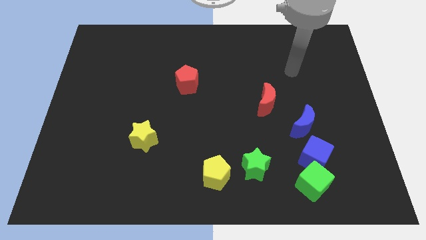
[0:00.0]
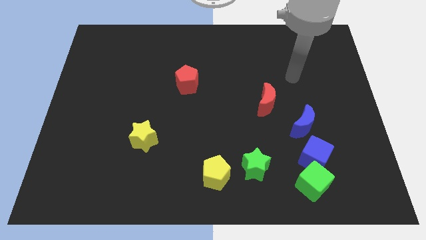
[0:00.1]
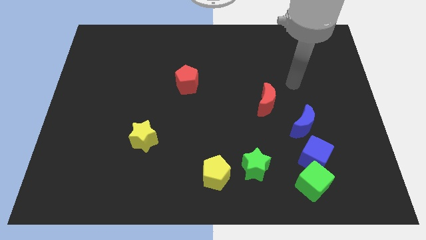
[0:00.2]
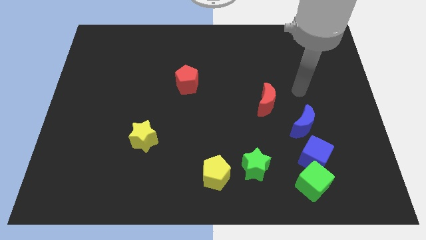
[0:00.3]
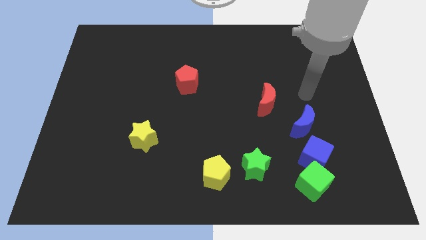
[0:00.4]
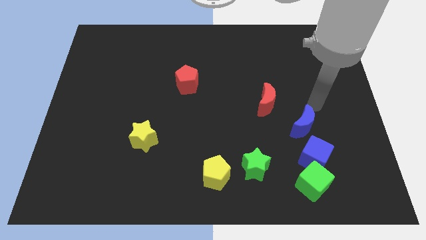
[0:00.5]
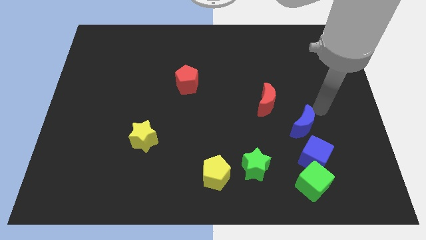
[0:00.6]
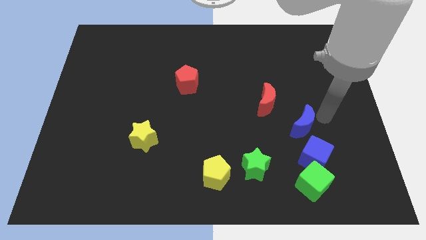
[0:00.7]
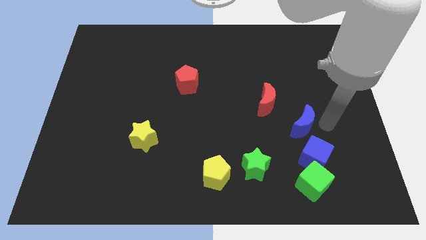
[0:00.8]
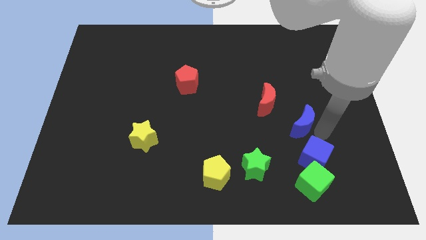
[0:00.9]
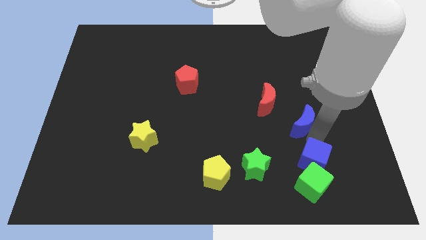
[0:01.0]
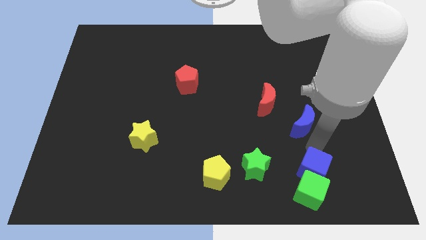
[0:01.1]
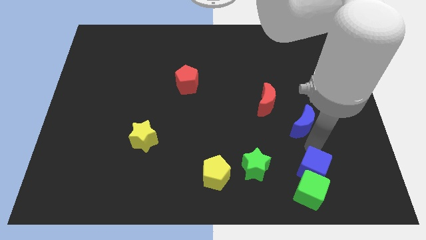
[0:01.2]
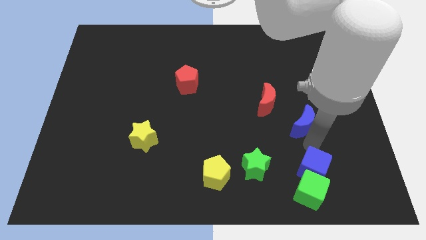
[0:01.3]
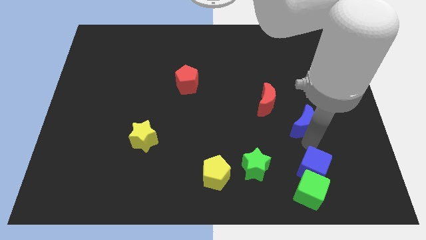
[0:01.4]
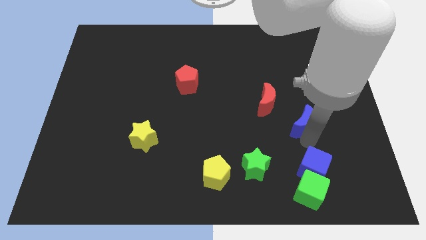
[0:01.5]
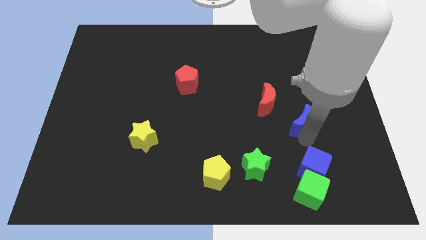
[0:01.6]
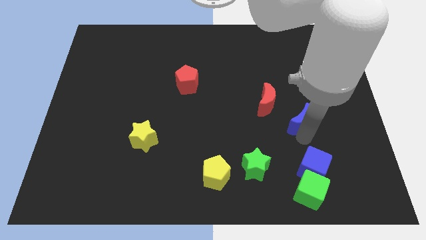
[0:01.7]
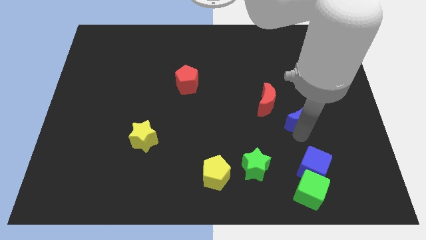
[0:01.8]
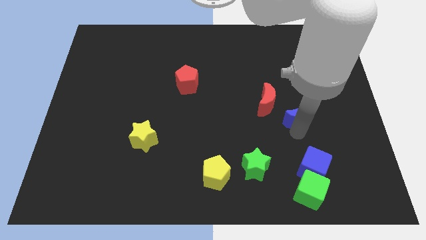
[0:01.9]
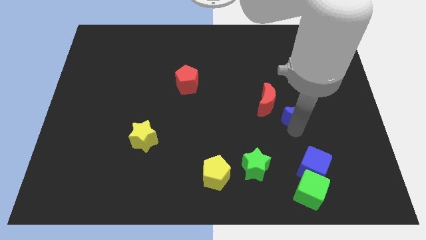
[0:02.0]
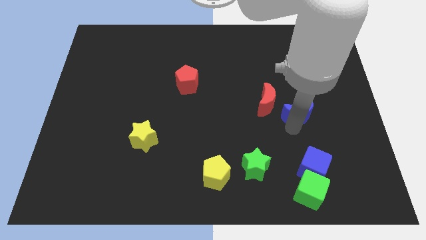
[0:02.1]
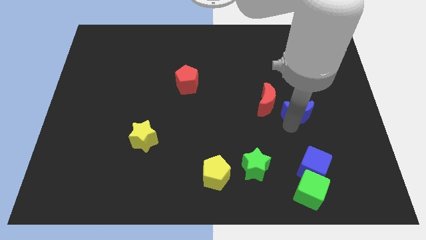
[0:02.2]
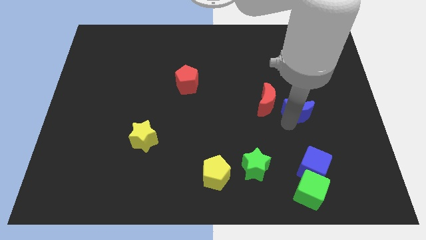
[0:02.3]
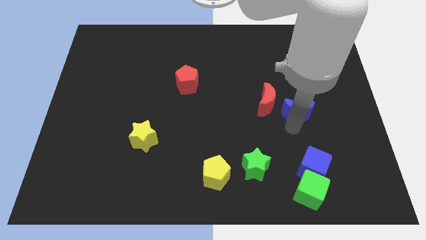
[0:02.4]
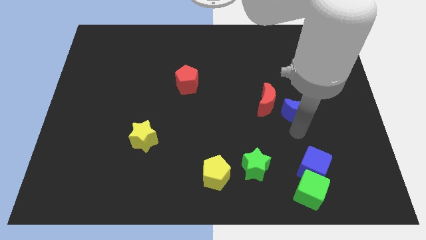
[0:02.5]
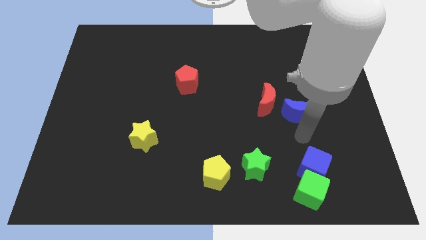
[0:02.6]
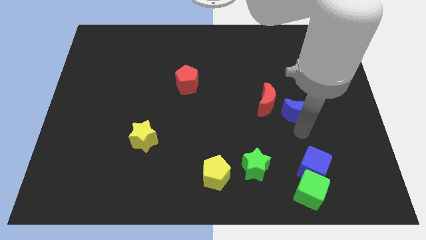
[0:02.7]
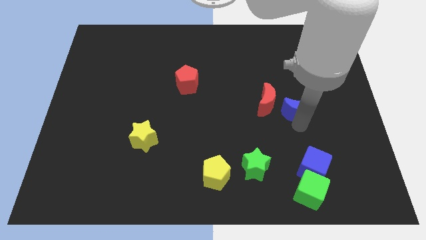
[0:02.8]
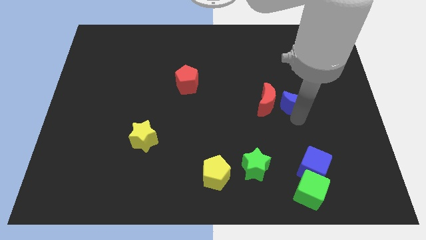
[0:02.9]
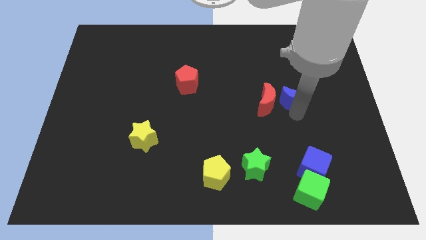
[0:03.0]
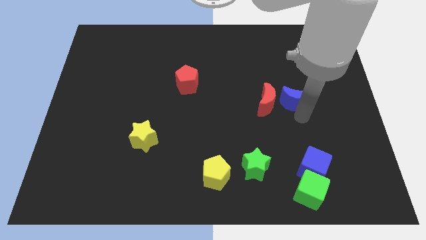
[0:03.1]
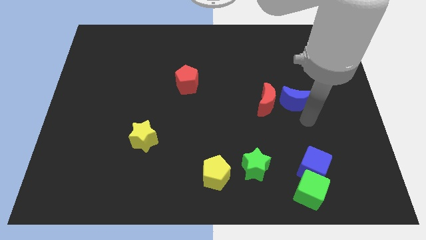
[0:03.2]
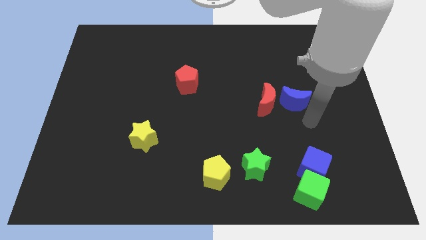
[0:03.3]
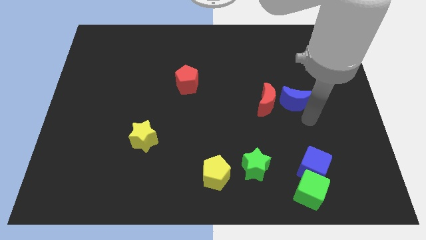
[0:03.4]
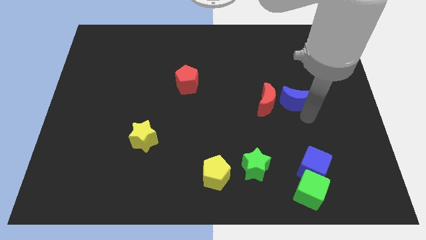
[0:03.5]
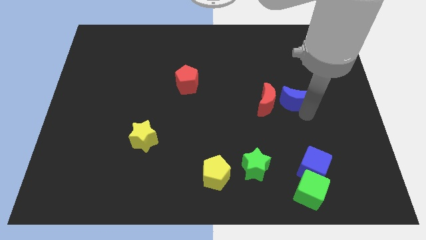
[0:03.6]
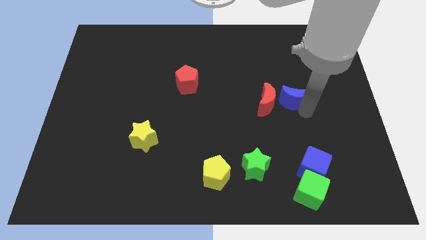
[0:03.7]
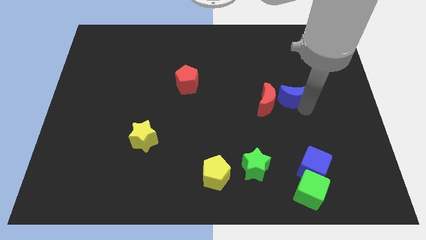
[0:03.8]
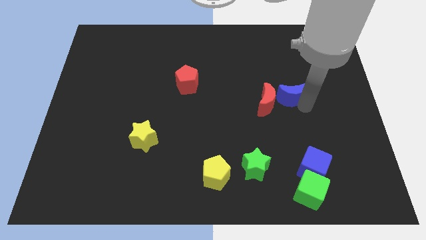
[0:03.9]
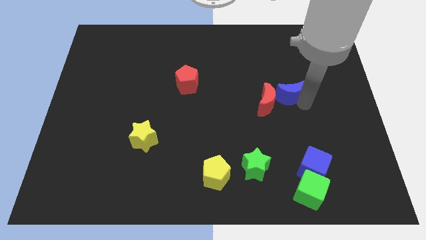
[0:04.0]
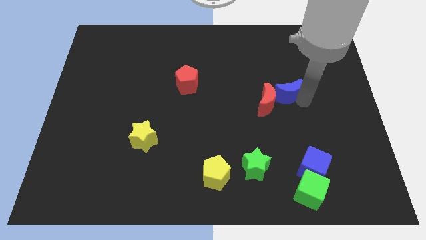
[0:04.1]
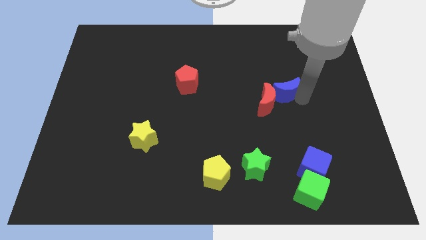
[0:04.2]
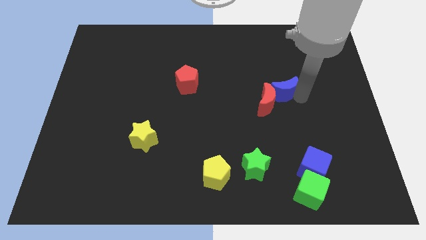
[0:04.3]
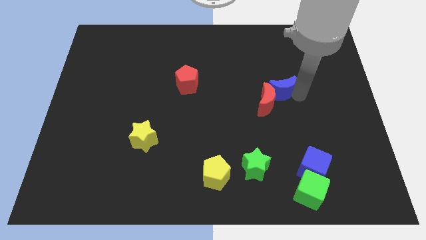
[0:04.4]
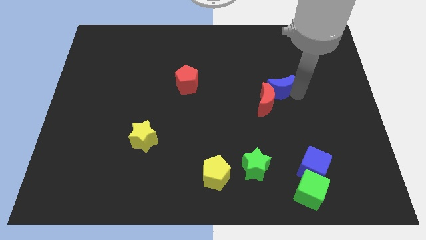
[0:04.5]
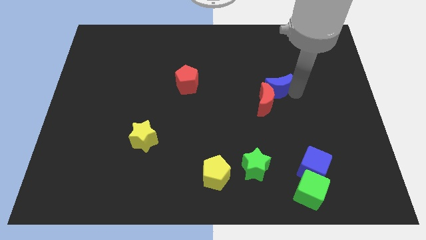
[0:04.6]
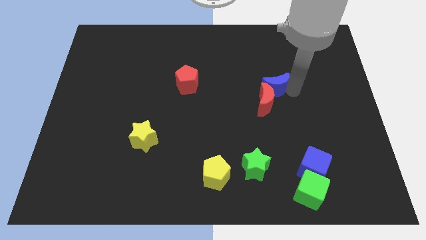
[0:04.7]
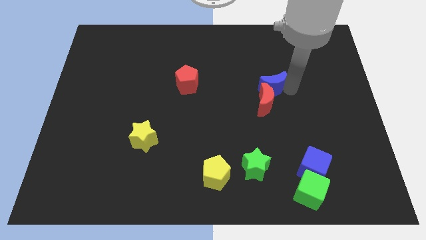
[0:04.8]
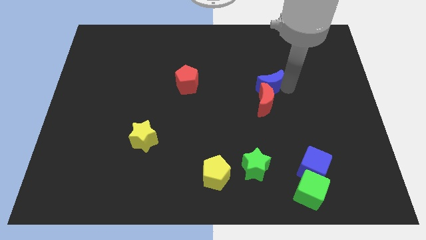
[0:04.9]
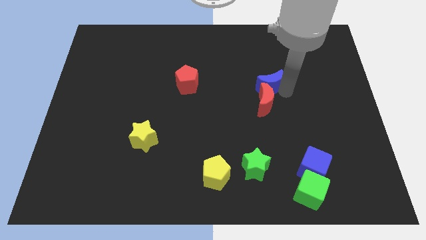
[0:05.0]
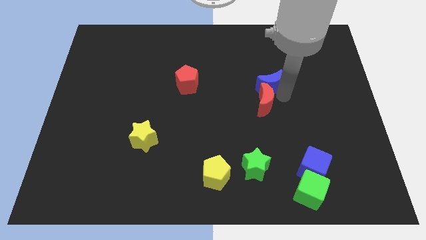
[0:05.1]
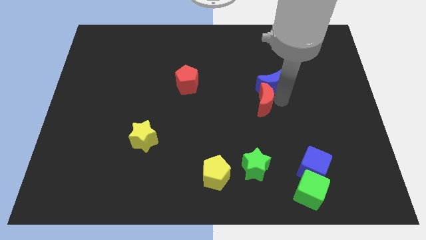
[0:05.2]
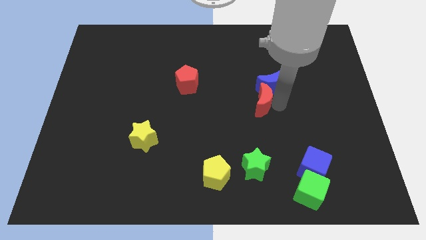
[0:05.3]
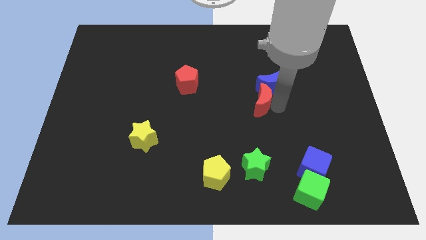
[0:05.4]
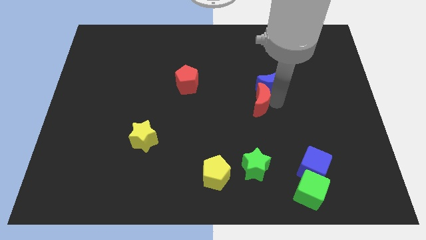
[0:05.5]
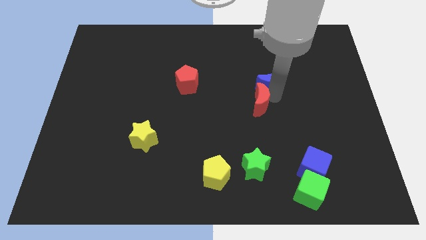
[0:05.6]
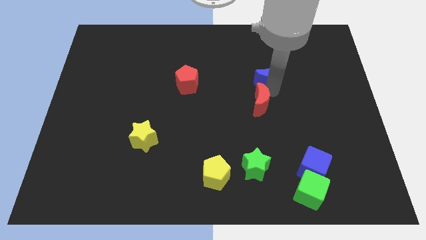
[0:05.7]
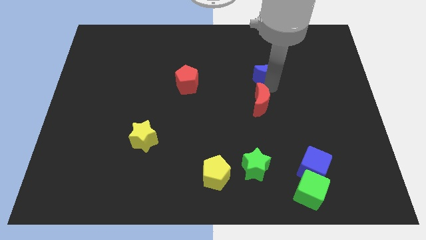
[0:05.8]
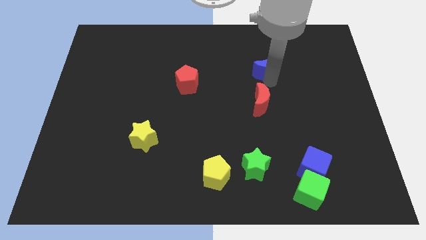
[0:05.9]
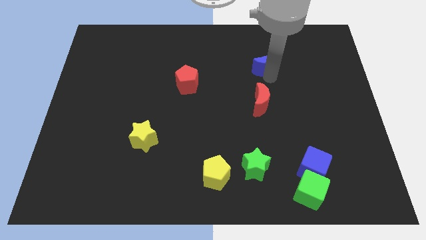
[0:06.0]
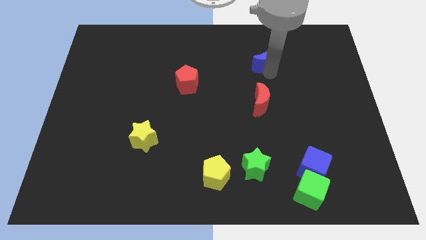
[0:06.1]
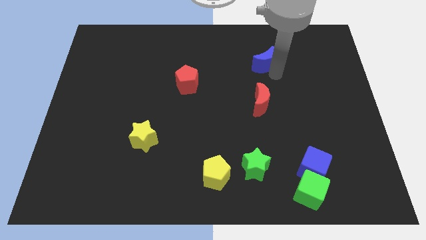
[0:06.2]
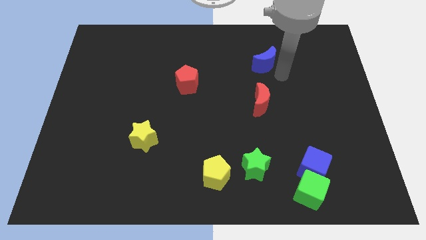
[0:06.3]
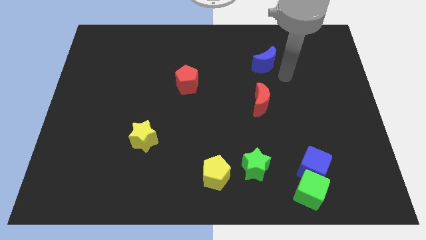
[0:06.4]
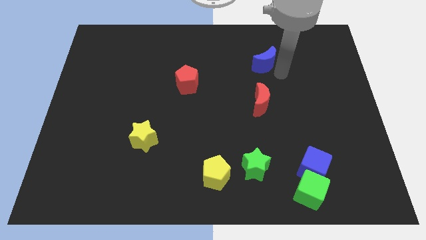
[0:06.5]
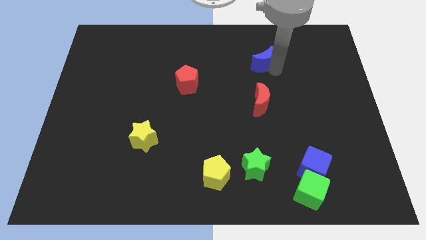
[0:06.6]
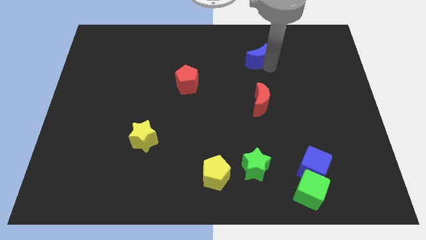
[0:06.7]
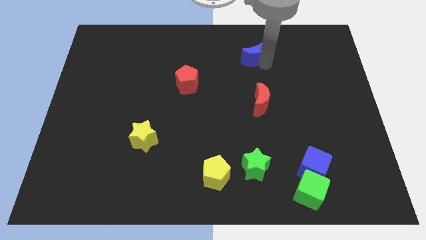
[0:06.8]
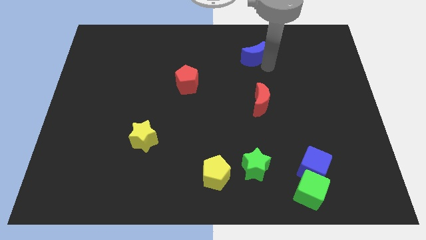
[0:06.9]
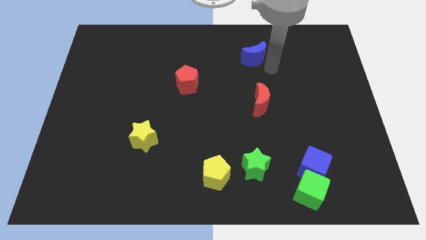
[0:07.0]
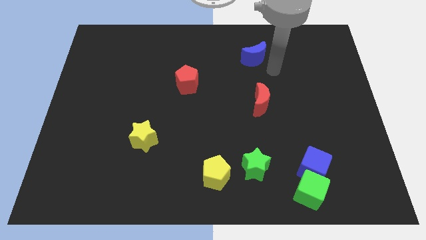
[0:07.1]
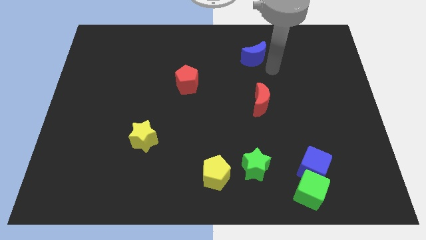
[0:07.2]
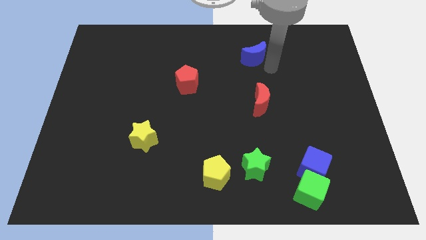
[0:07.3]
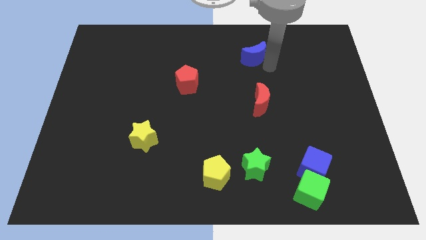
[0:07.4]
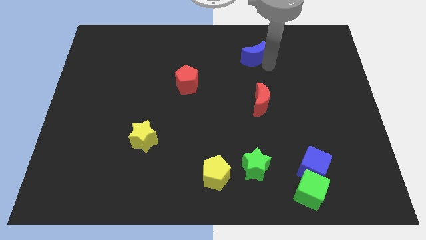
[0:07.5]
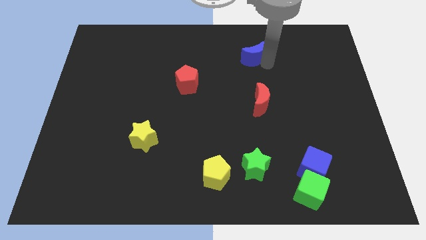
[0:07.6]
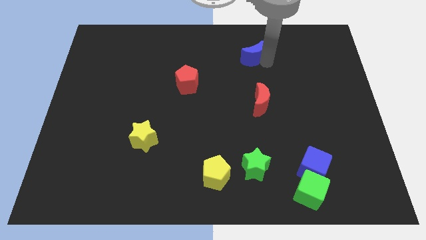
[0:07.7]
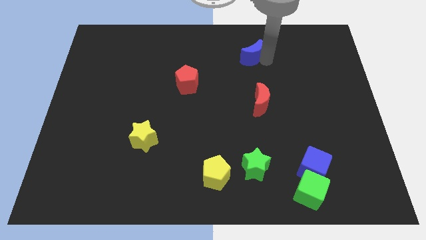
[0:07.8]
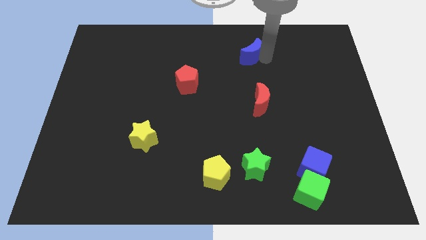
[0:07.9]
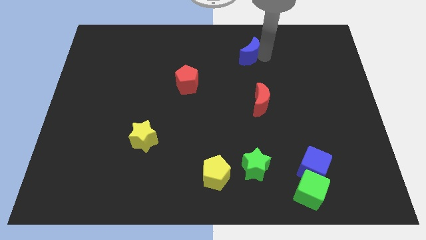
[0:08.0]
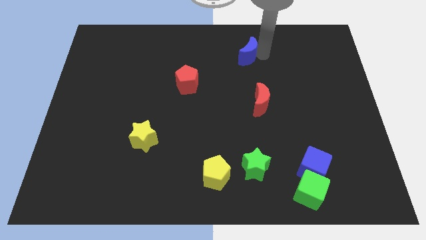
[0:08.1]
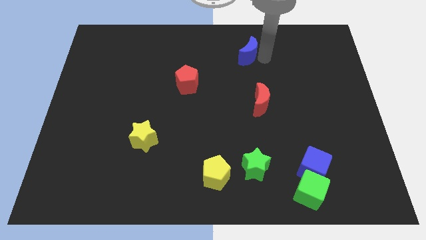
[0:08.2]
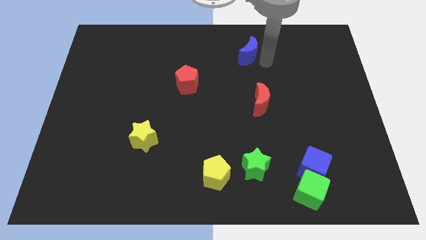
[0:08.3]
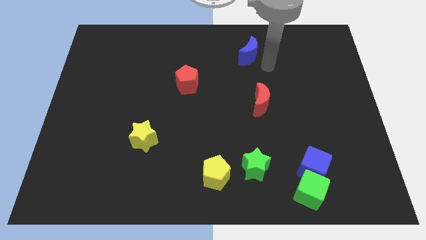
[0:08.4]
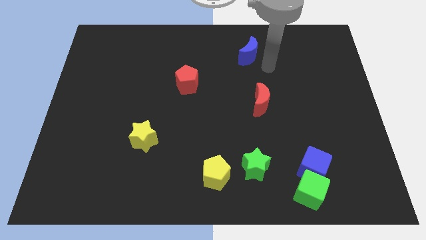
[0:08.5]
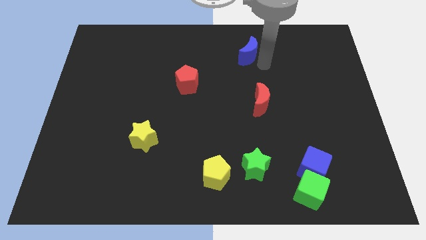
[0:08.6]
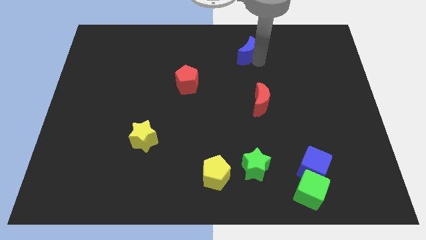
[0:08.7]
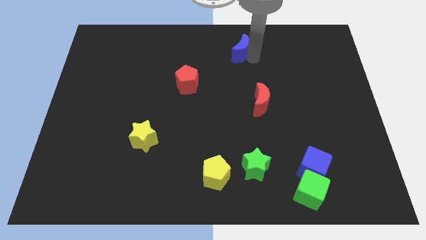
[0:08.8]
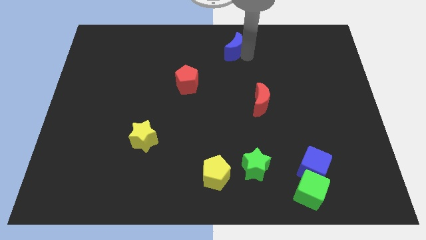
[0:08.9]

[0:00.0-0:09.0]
put the blue moon to the top
